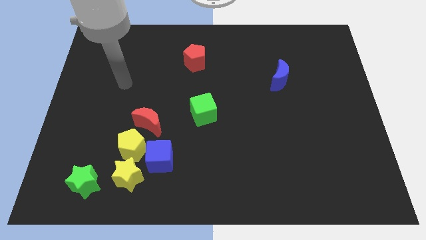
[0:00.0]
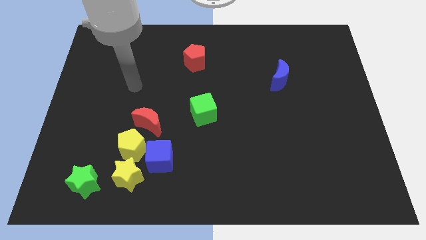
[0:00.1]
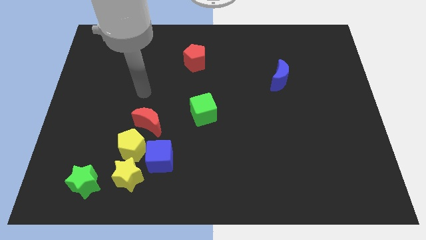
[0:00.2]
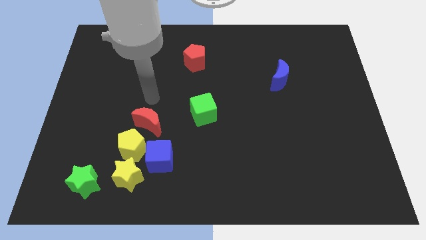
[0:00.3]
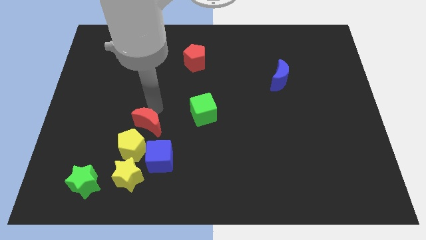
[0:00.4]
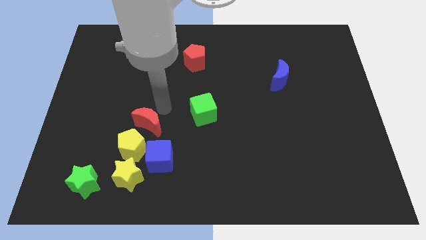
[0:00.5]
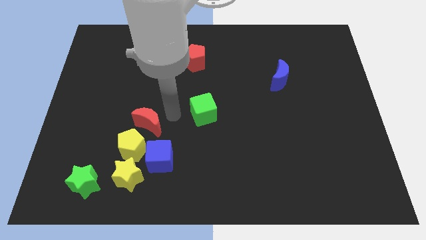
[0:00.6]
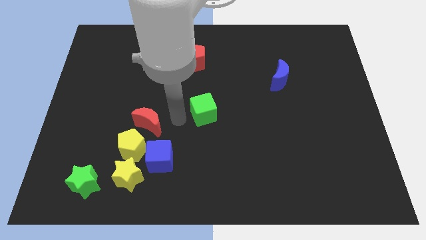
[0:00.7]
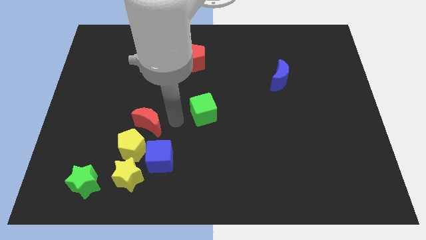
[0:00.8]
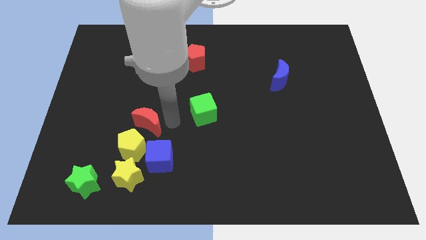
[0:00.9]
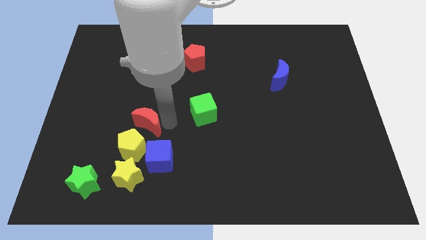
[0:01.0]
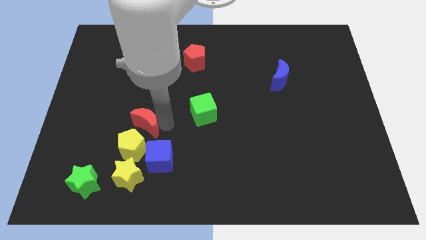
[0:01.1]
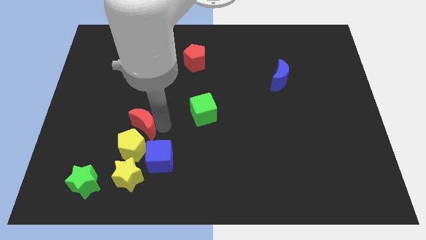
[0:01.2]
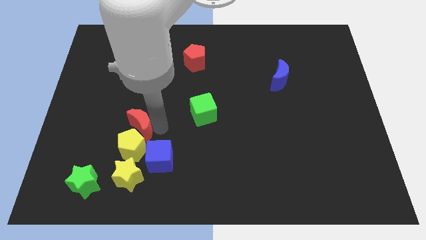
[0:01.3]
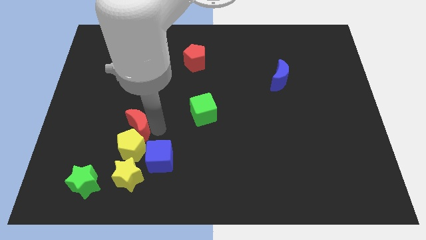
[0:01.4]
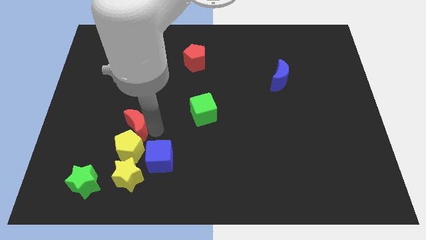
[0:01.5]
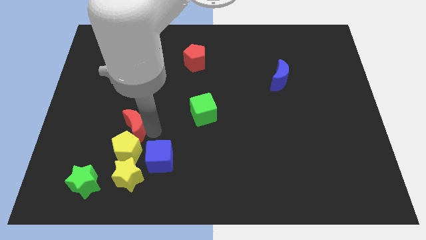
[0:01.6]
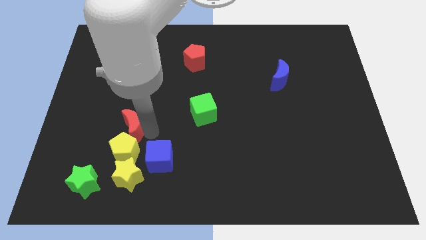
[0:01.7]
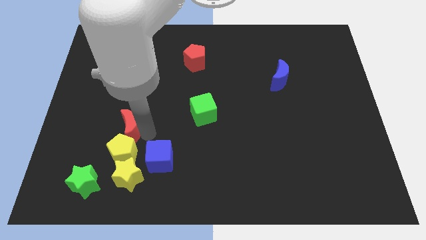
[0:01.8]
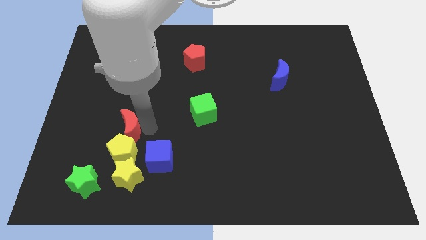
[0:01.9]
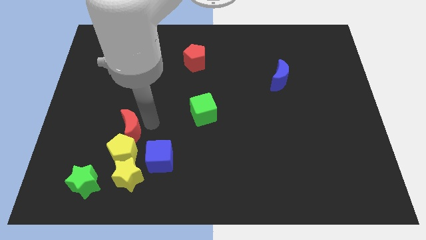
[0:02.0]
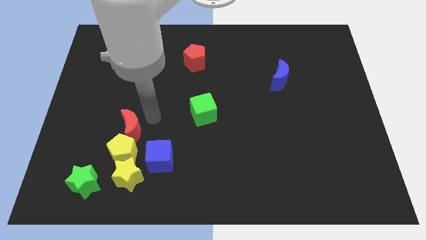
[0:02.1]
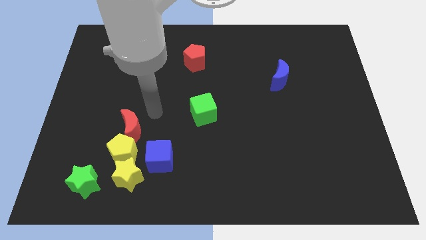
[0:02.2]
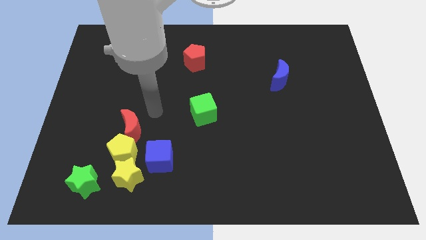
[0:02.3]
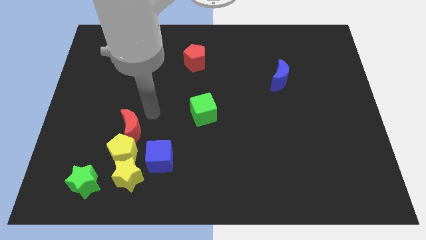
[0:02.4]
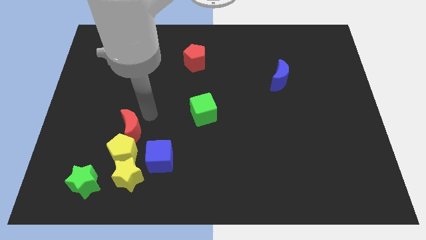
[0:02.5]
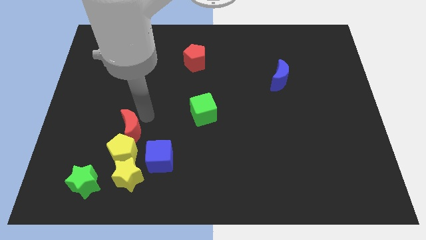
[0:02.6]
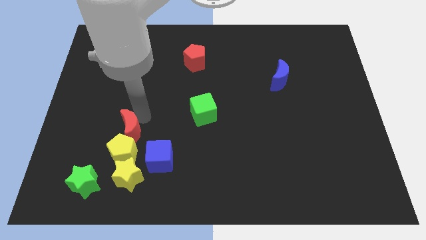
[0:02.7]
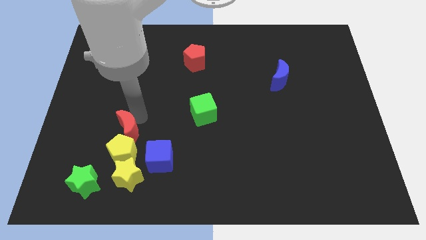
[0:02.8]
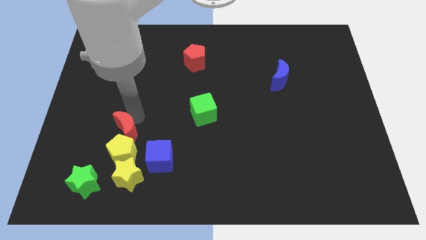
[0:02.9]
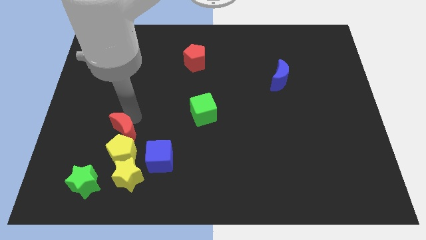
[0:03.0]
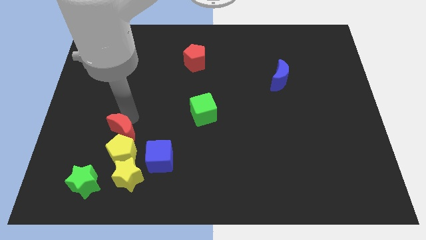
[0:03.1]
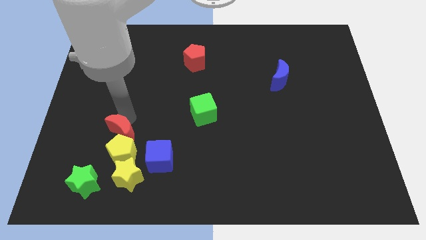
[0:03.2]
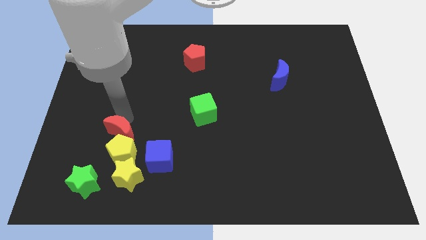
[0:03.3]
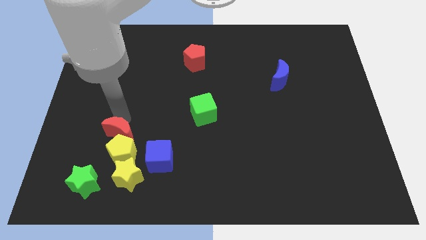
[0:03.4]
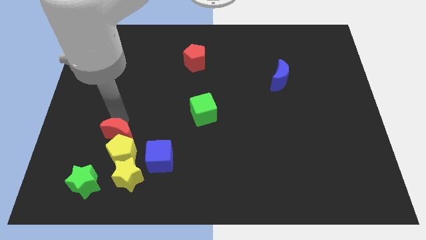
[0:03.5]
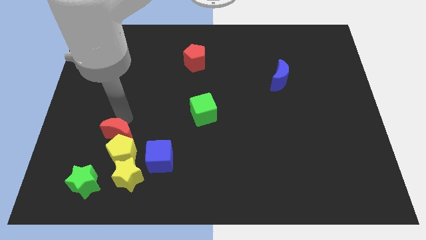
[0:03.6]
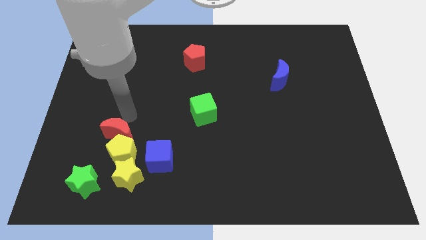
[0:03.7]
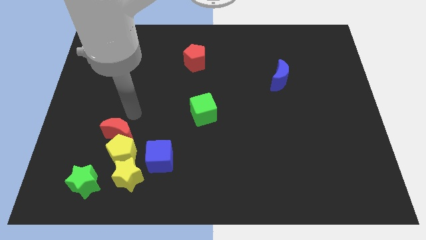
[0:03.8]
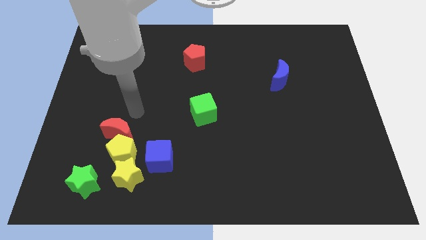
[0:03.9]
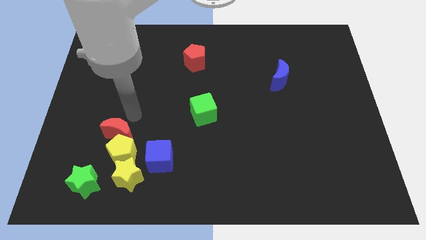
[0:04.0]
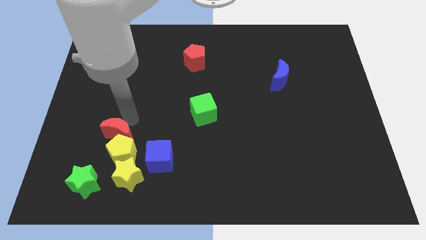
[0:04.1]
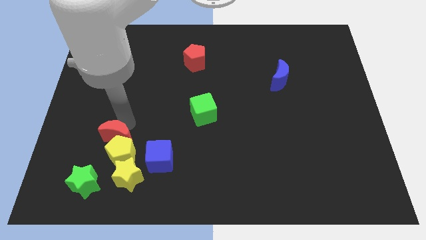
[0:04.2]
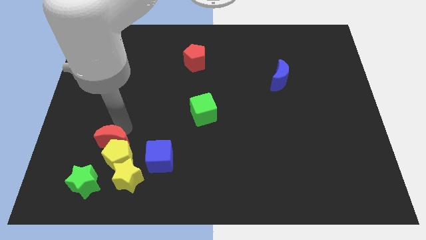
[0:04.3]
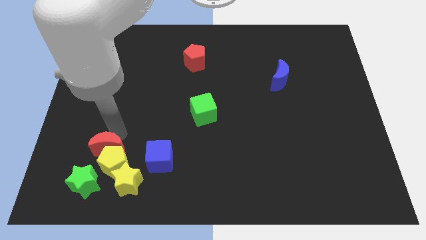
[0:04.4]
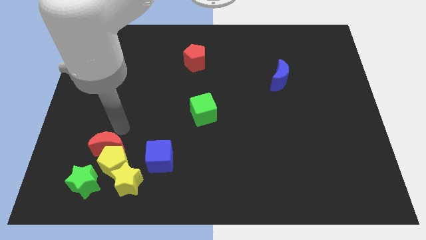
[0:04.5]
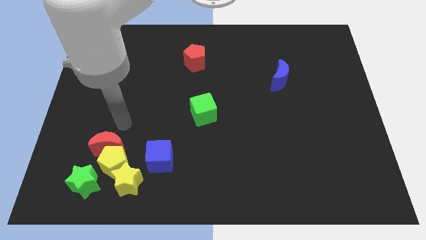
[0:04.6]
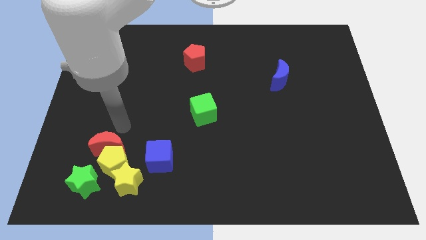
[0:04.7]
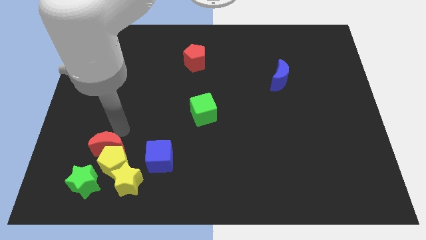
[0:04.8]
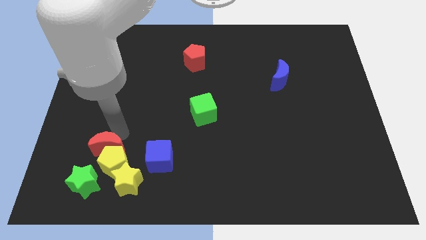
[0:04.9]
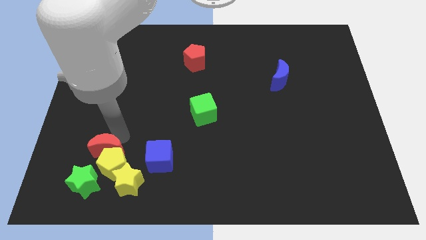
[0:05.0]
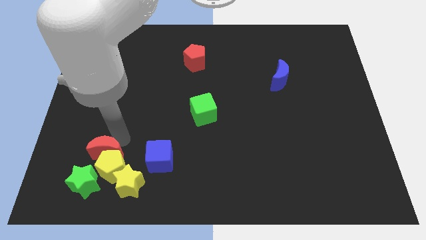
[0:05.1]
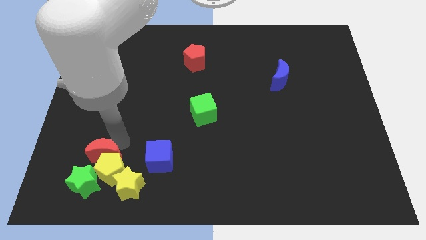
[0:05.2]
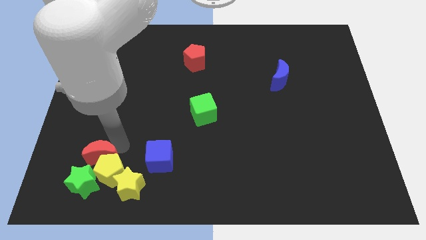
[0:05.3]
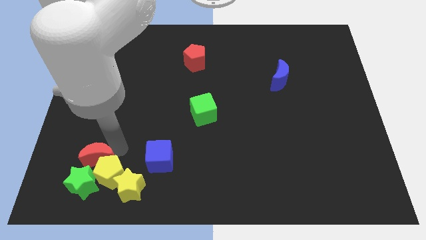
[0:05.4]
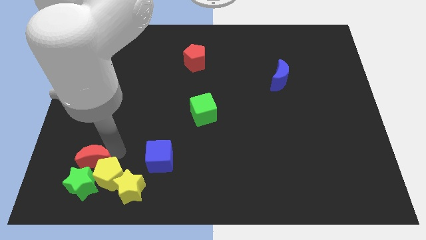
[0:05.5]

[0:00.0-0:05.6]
move the red moon towards the green star
